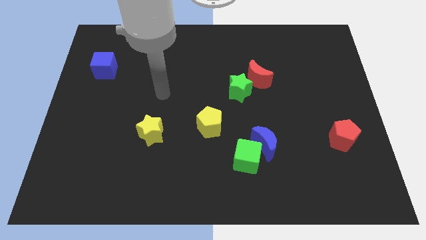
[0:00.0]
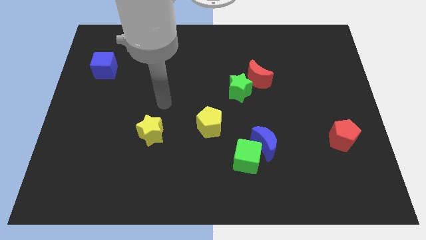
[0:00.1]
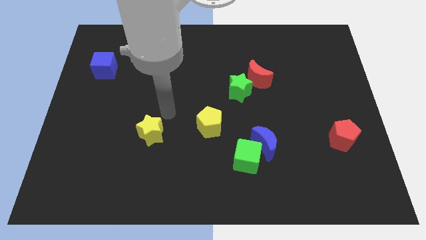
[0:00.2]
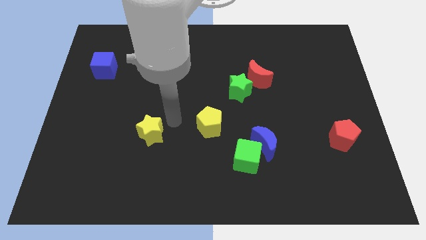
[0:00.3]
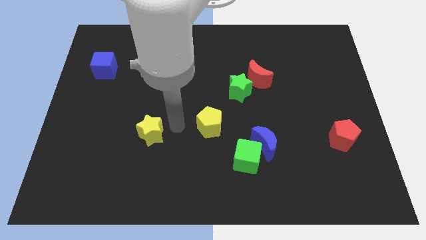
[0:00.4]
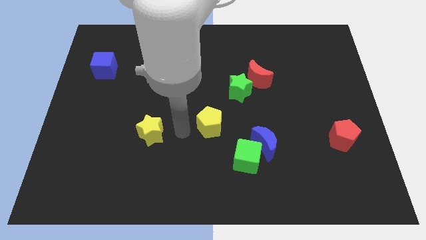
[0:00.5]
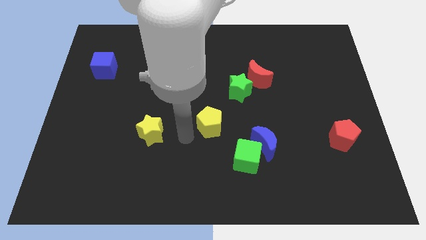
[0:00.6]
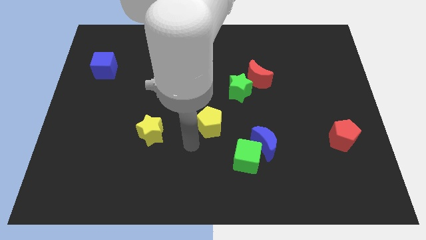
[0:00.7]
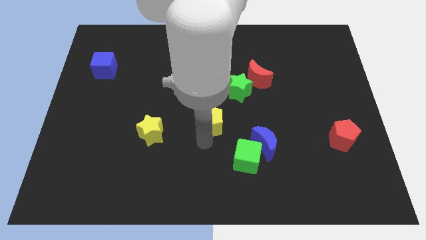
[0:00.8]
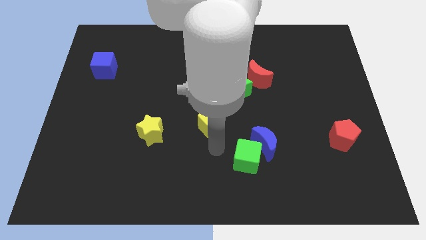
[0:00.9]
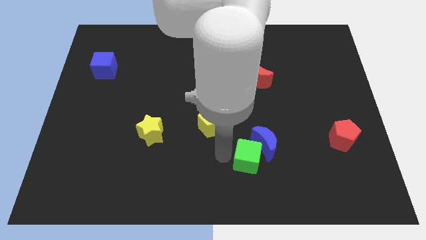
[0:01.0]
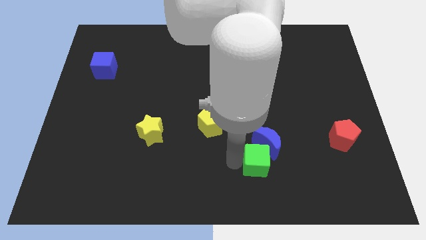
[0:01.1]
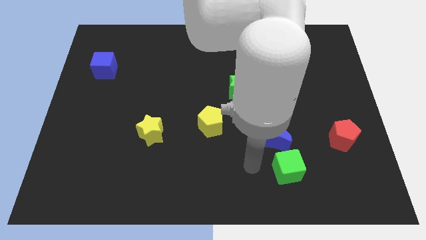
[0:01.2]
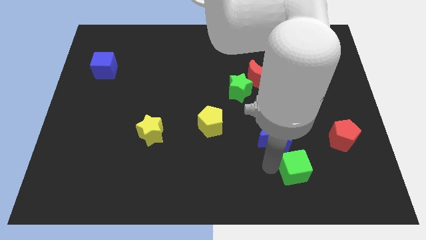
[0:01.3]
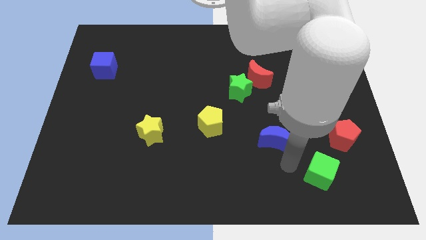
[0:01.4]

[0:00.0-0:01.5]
pull the blue moon apart from the green cube

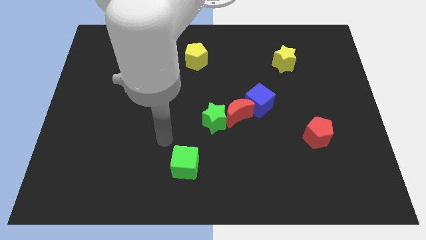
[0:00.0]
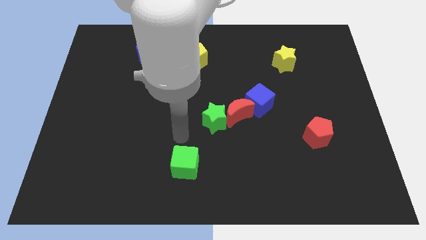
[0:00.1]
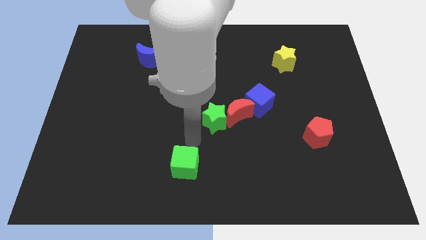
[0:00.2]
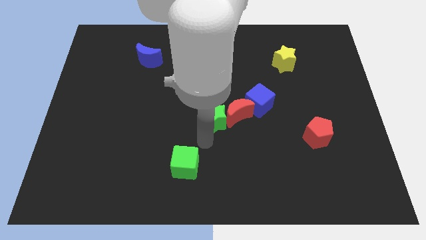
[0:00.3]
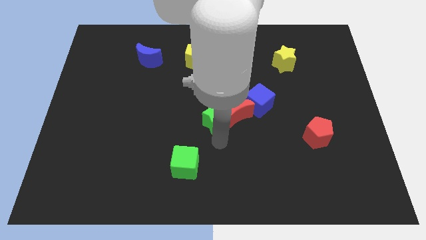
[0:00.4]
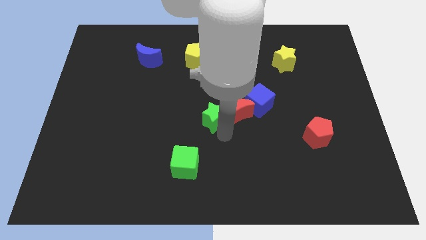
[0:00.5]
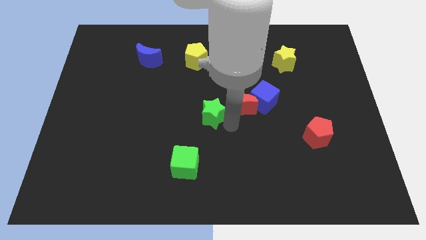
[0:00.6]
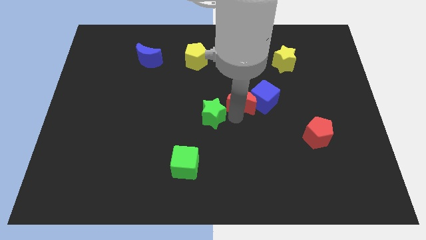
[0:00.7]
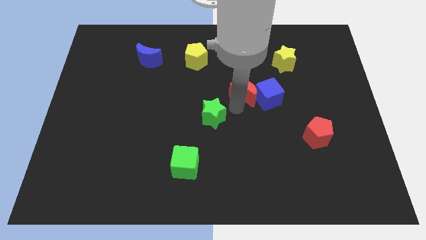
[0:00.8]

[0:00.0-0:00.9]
pull the green star apart from the red moon

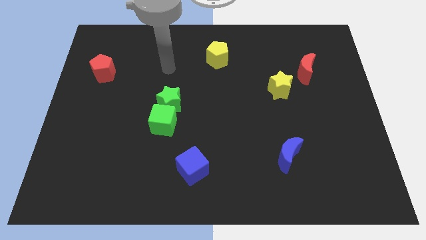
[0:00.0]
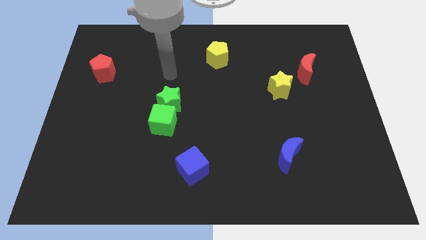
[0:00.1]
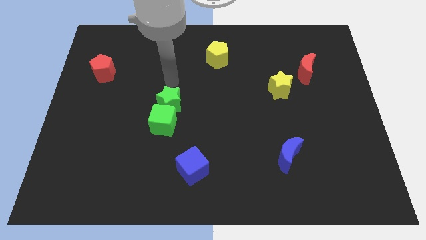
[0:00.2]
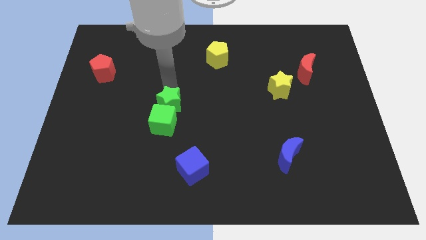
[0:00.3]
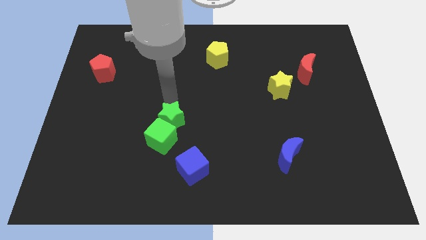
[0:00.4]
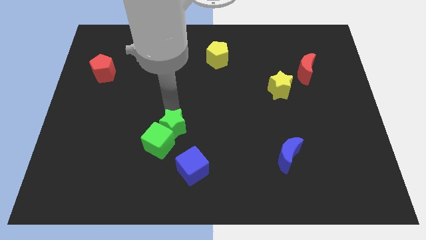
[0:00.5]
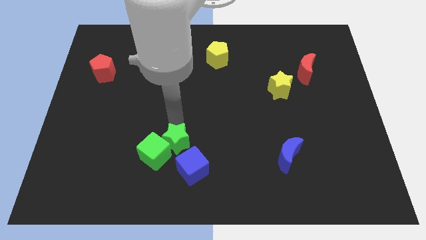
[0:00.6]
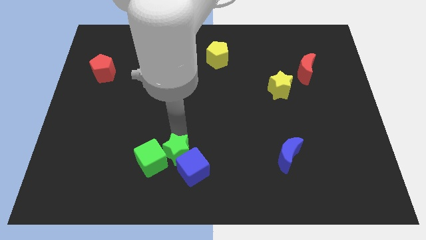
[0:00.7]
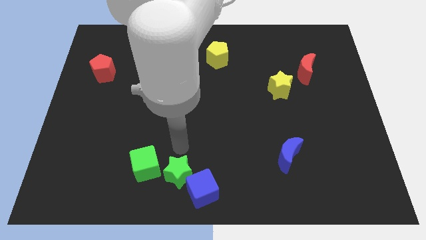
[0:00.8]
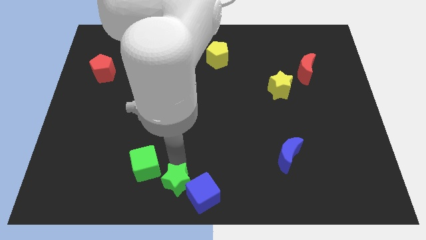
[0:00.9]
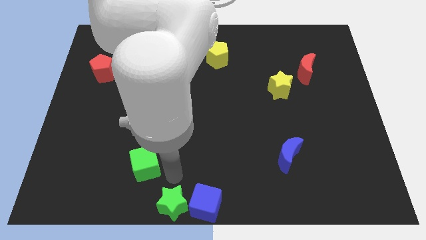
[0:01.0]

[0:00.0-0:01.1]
separate the green cube from the green star

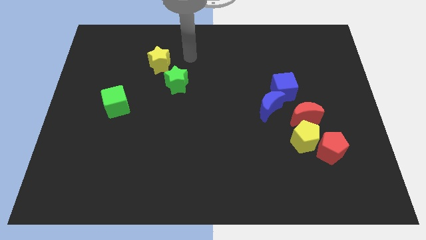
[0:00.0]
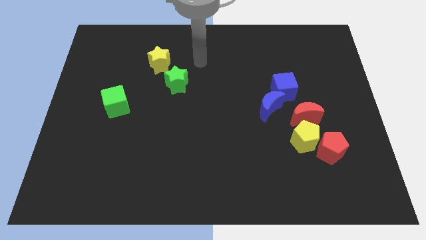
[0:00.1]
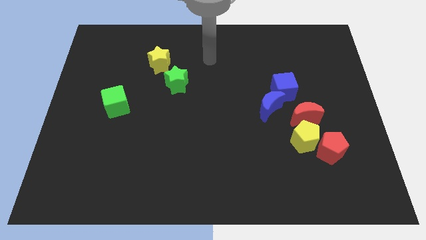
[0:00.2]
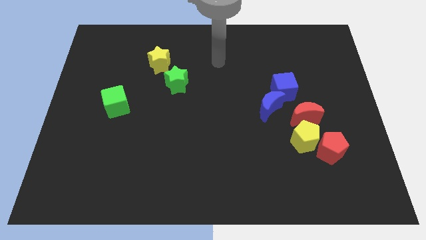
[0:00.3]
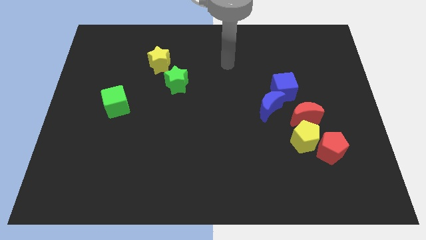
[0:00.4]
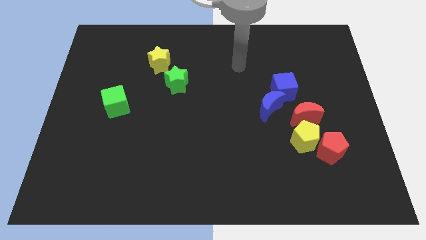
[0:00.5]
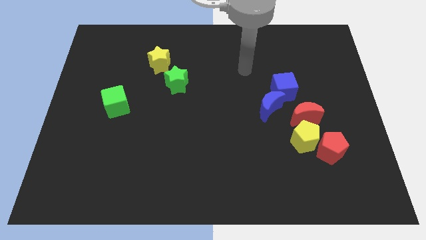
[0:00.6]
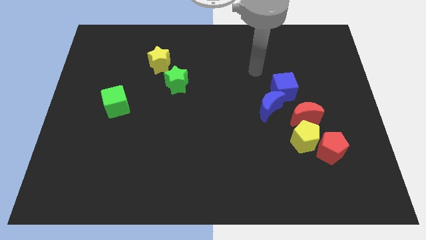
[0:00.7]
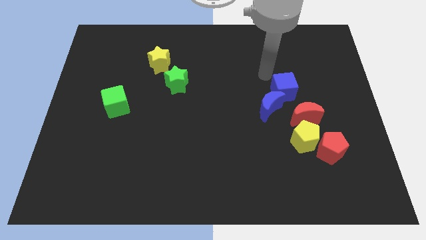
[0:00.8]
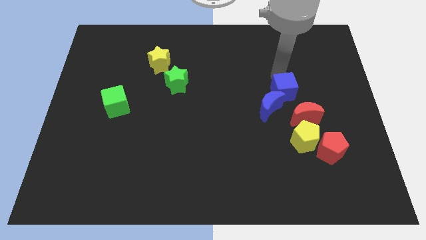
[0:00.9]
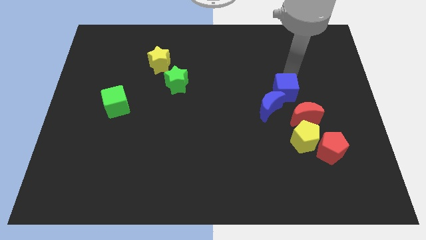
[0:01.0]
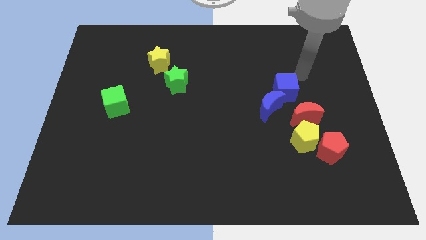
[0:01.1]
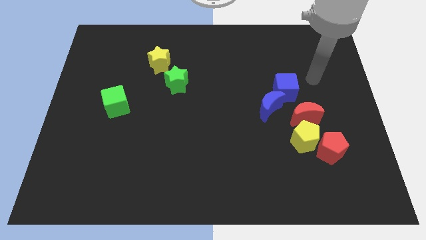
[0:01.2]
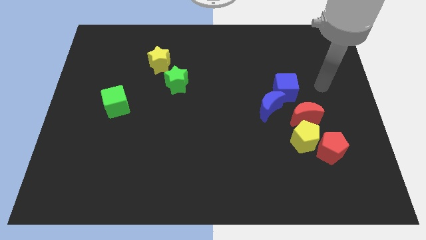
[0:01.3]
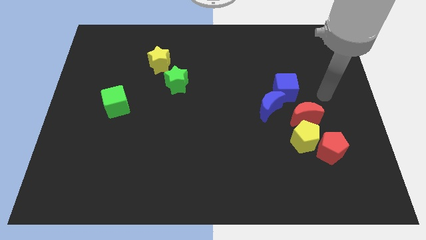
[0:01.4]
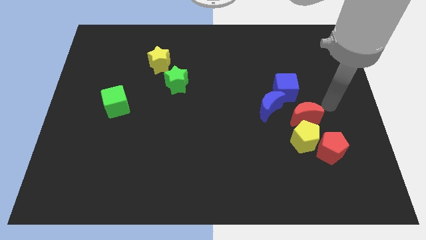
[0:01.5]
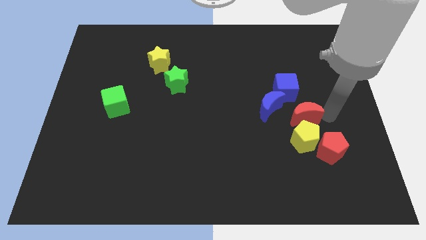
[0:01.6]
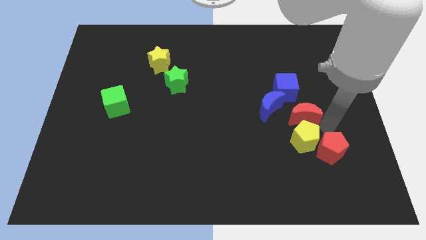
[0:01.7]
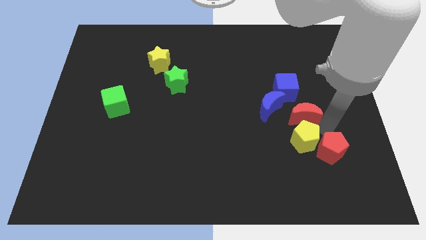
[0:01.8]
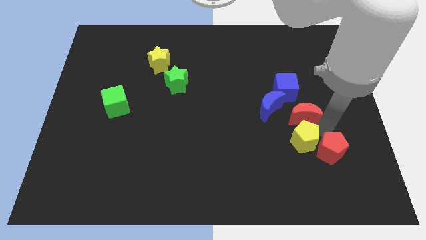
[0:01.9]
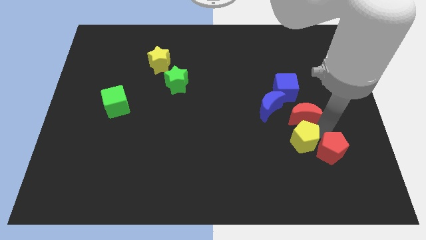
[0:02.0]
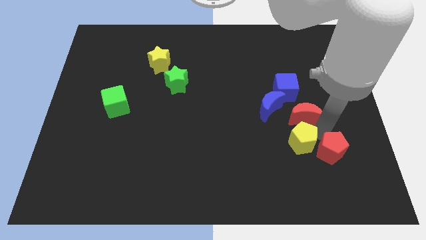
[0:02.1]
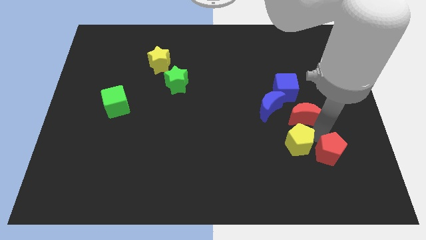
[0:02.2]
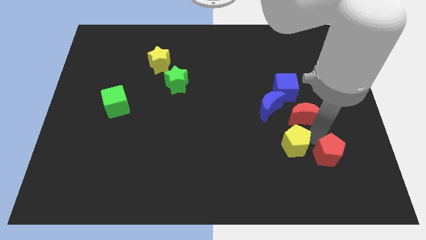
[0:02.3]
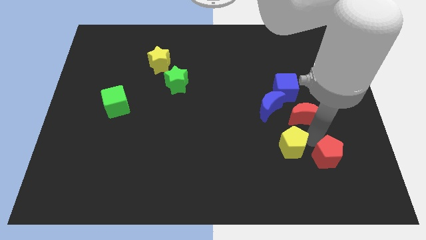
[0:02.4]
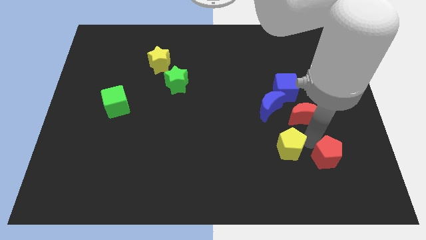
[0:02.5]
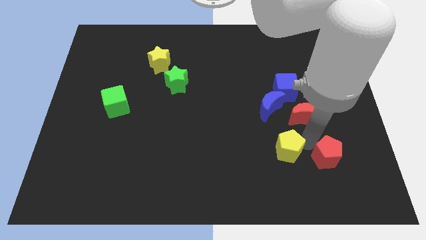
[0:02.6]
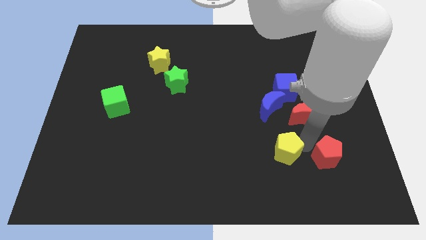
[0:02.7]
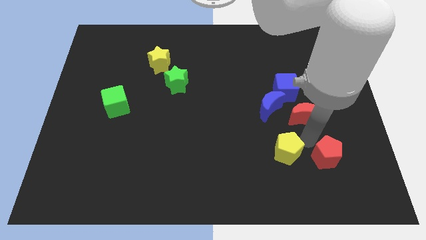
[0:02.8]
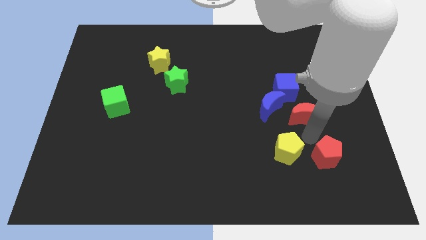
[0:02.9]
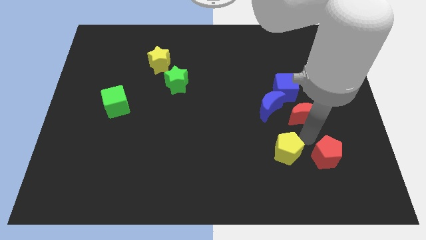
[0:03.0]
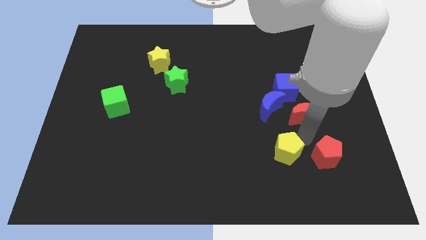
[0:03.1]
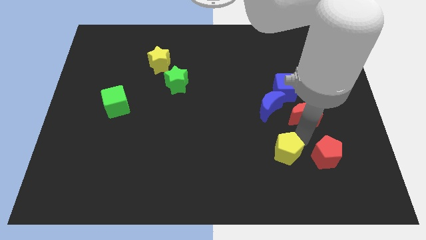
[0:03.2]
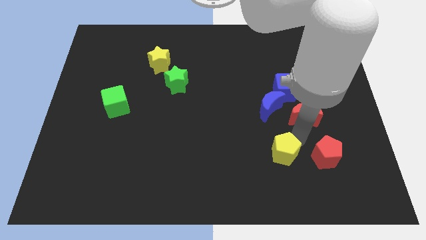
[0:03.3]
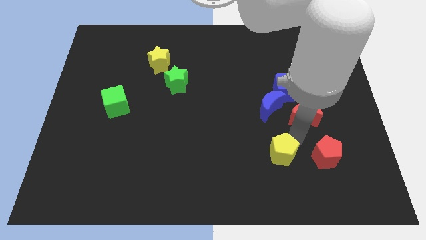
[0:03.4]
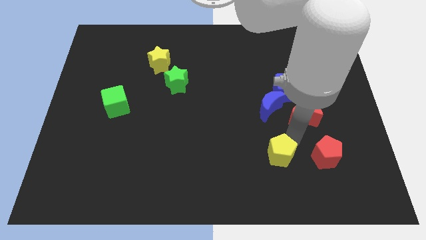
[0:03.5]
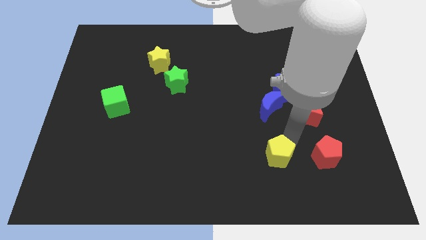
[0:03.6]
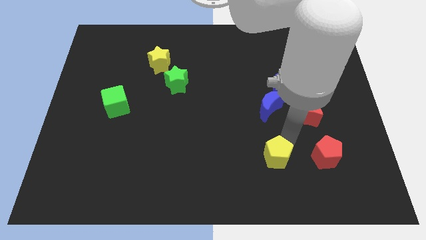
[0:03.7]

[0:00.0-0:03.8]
move the yellow pentagon away from the red pentagon and red moon

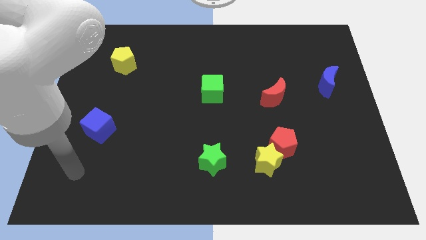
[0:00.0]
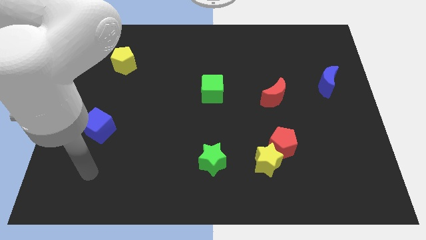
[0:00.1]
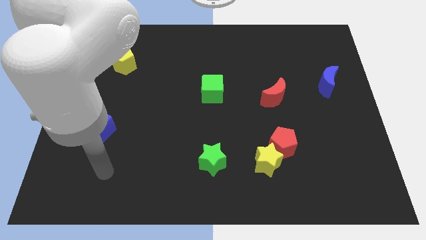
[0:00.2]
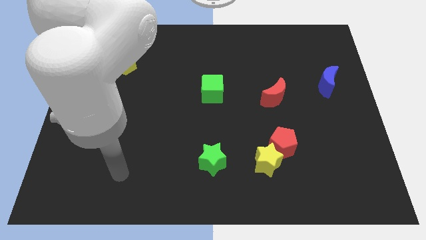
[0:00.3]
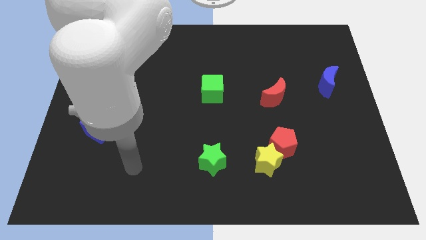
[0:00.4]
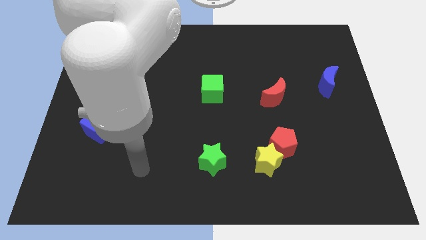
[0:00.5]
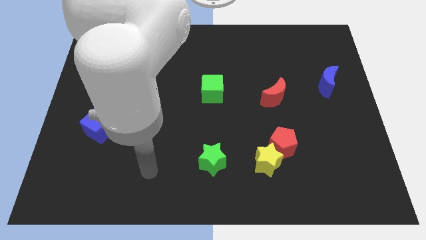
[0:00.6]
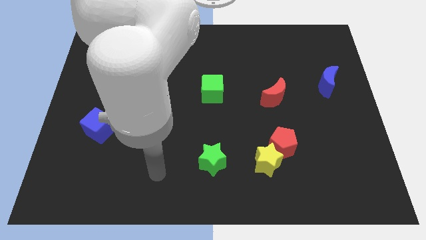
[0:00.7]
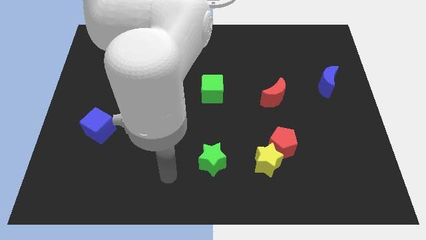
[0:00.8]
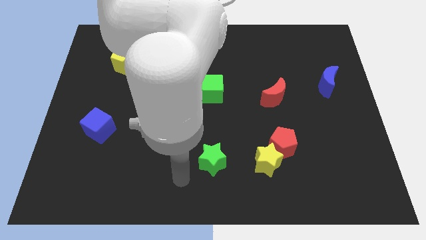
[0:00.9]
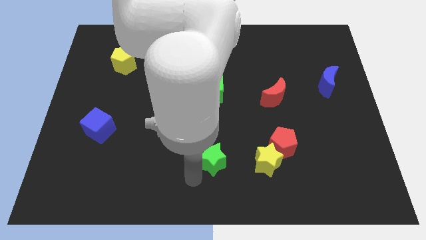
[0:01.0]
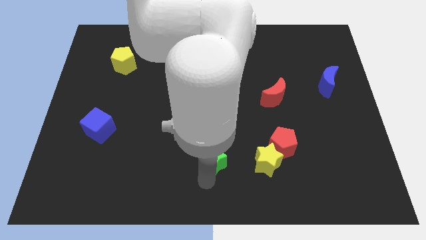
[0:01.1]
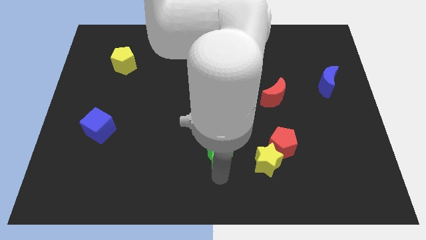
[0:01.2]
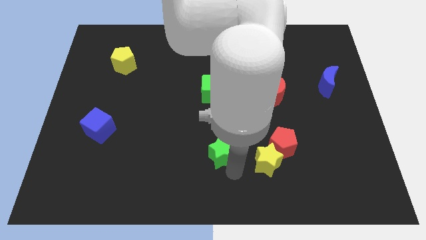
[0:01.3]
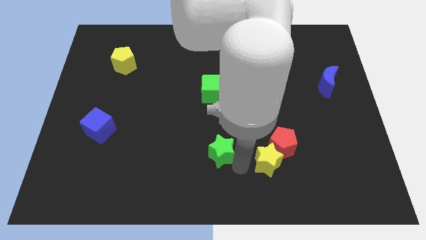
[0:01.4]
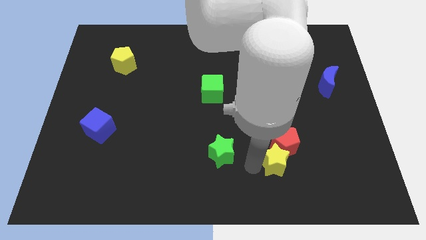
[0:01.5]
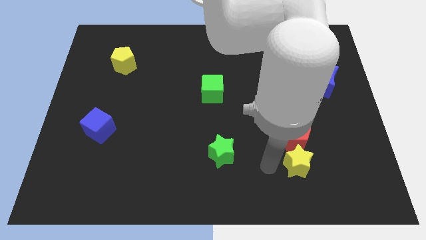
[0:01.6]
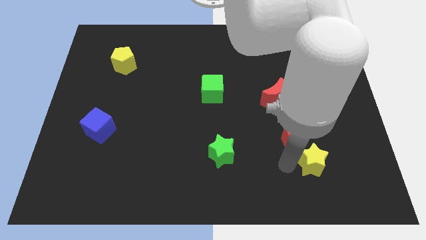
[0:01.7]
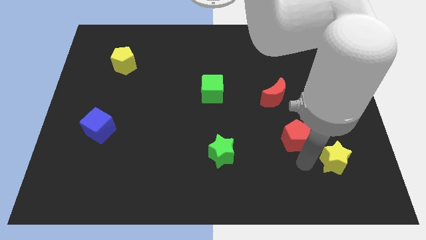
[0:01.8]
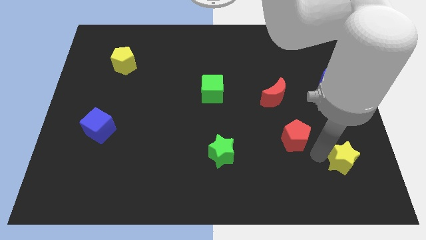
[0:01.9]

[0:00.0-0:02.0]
pull the red pentagon apart from the yellow star
